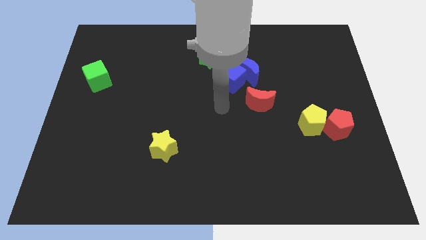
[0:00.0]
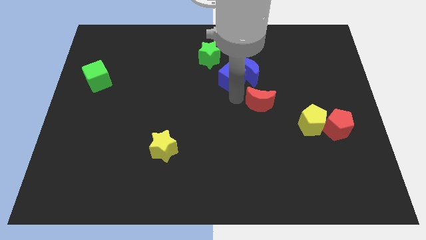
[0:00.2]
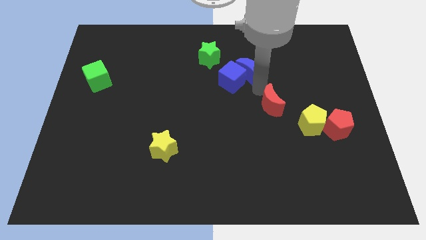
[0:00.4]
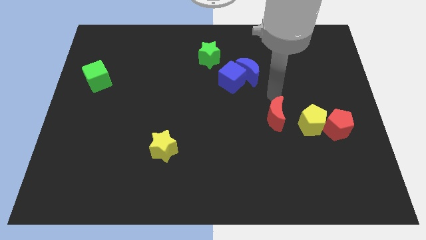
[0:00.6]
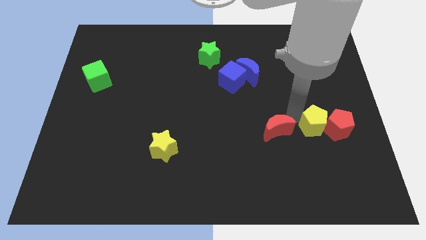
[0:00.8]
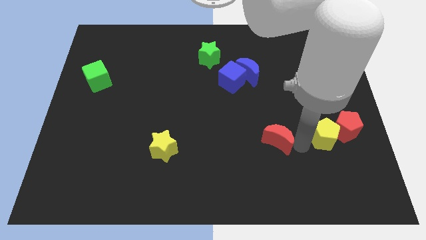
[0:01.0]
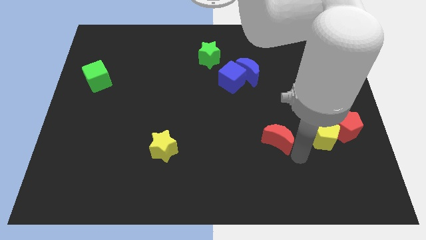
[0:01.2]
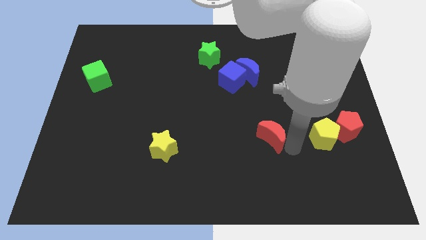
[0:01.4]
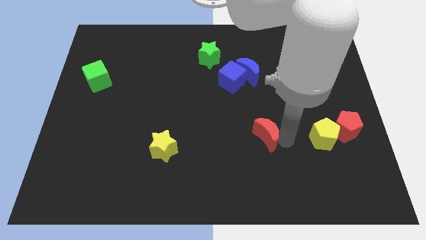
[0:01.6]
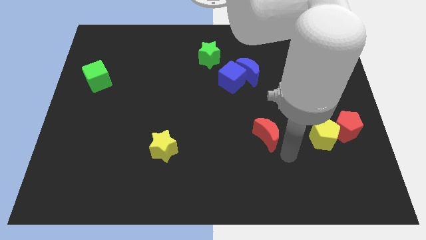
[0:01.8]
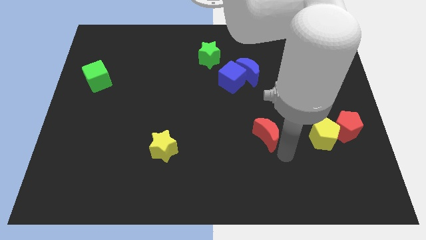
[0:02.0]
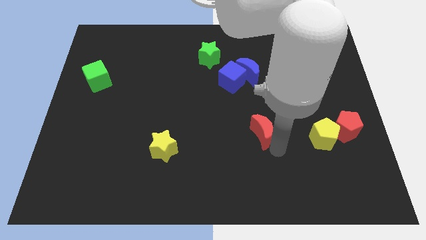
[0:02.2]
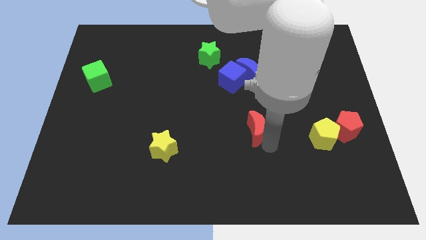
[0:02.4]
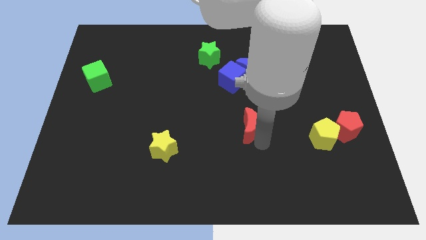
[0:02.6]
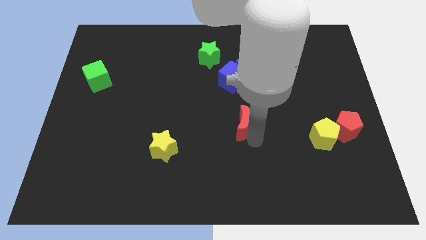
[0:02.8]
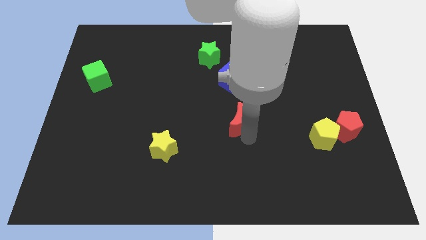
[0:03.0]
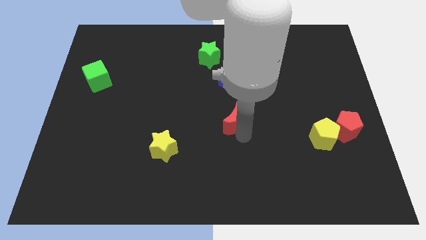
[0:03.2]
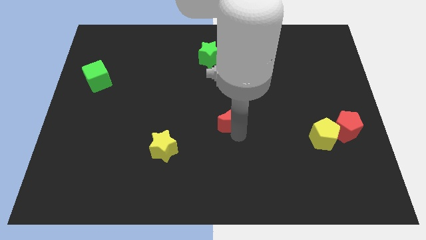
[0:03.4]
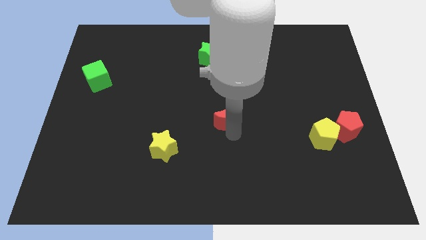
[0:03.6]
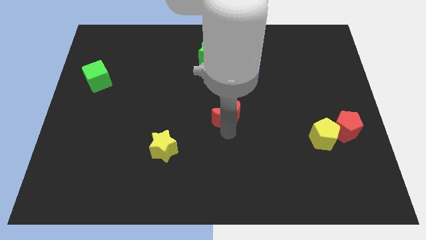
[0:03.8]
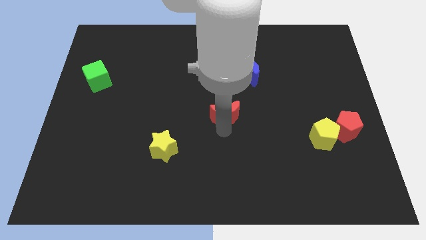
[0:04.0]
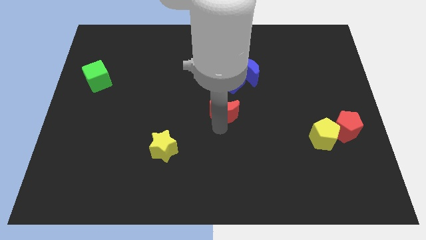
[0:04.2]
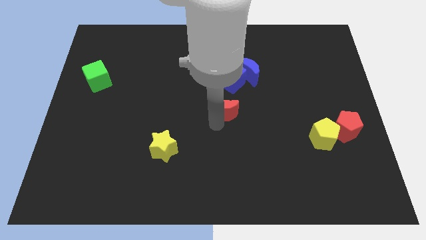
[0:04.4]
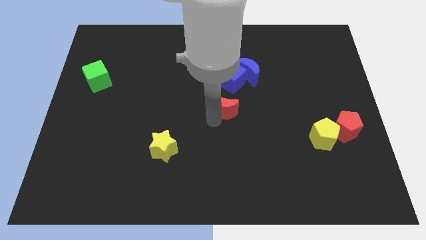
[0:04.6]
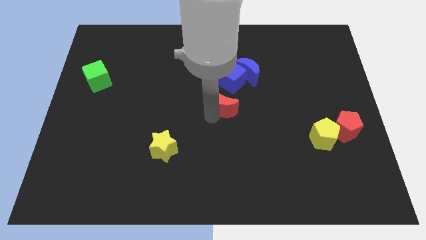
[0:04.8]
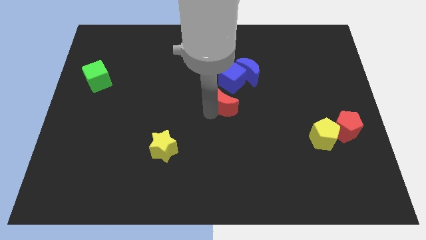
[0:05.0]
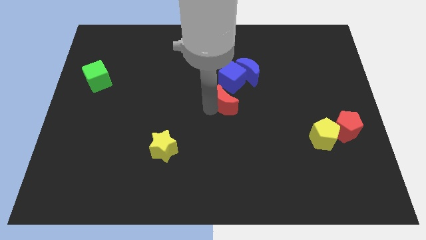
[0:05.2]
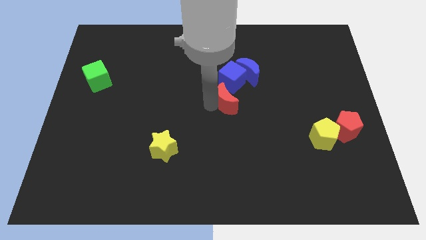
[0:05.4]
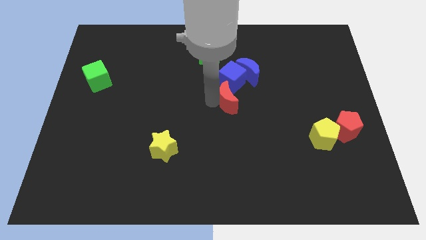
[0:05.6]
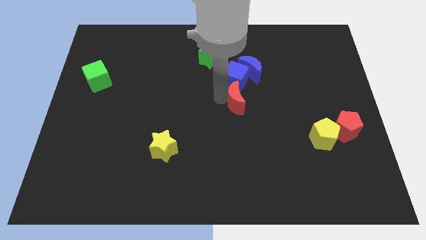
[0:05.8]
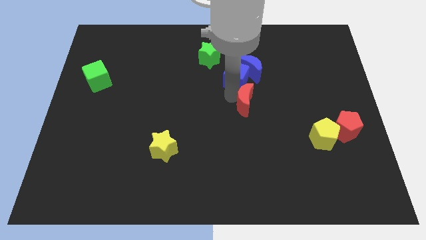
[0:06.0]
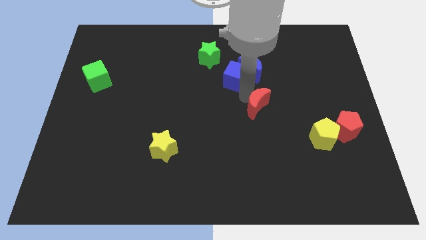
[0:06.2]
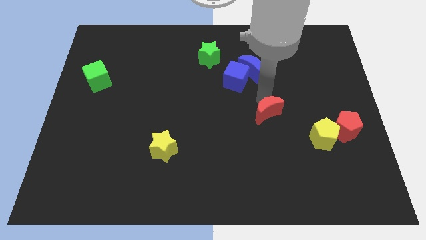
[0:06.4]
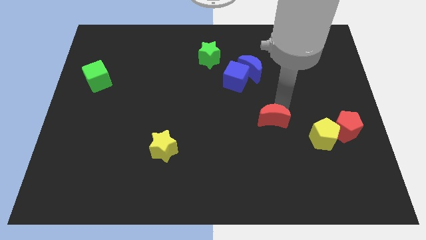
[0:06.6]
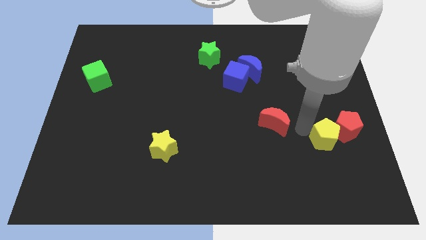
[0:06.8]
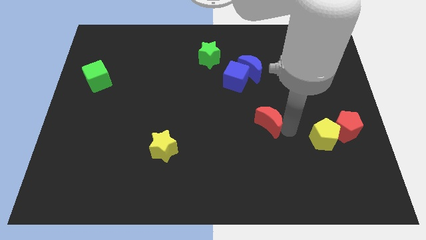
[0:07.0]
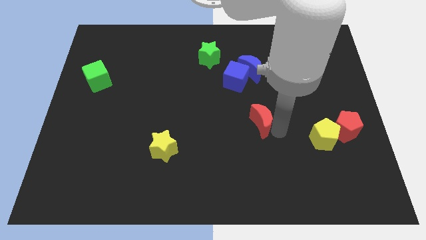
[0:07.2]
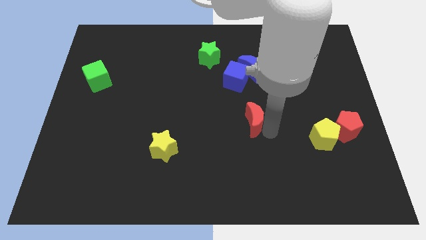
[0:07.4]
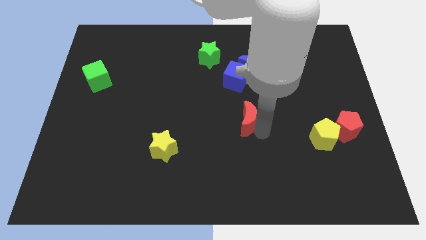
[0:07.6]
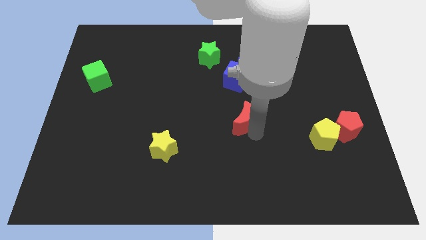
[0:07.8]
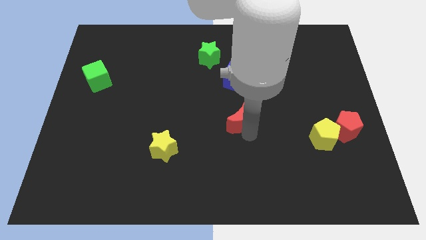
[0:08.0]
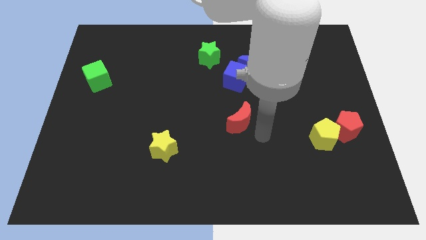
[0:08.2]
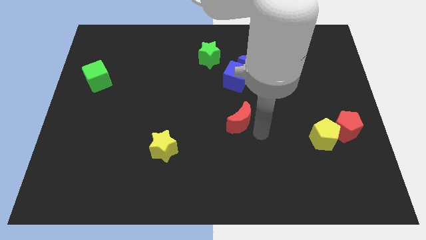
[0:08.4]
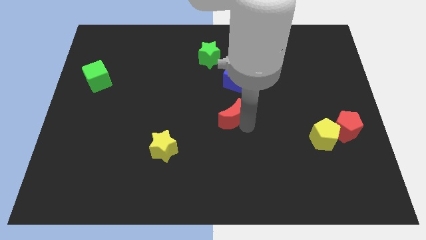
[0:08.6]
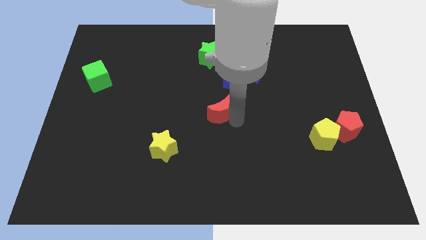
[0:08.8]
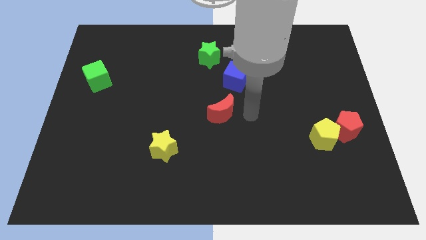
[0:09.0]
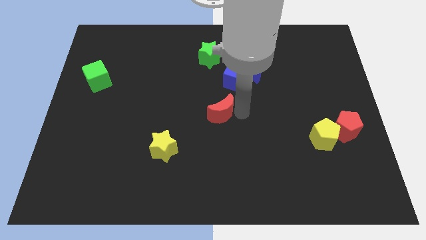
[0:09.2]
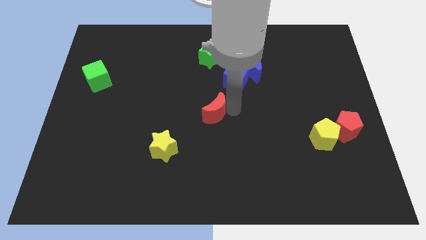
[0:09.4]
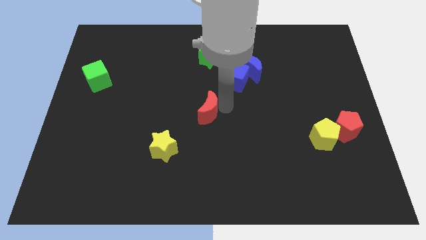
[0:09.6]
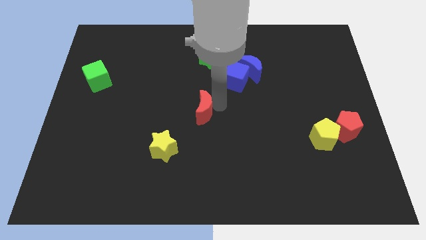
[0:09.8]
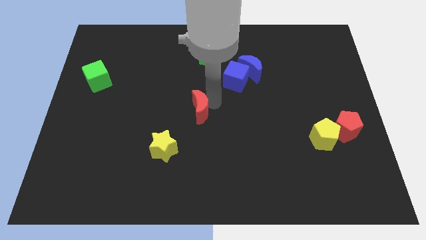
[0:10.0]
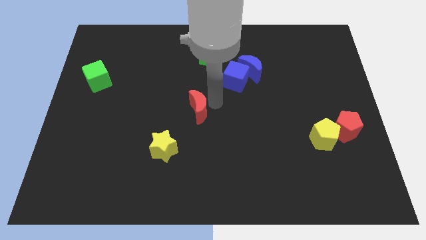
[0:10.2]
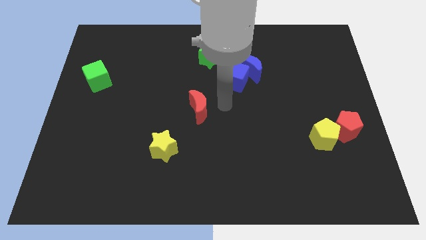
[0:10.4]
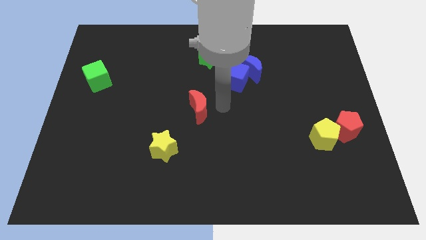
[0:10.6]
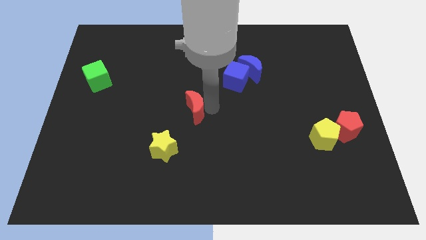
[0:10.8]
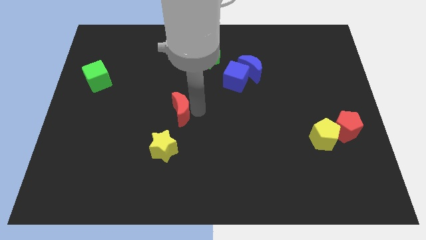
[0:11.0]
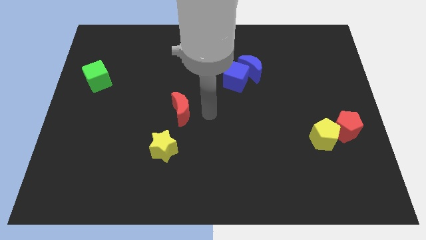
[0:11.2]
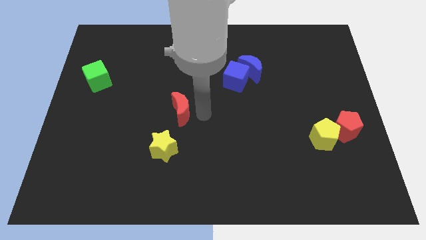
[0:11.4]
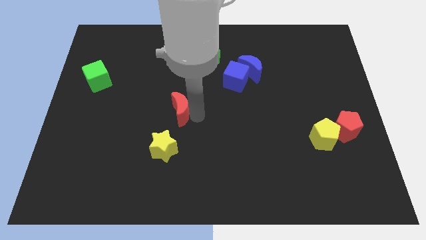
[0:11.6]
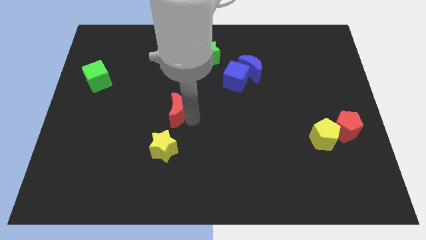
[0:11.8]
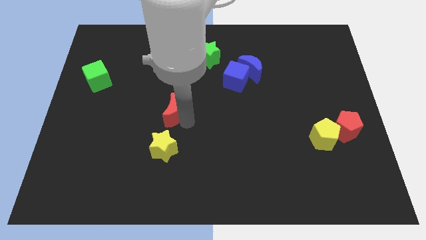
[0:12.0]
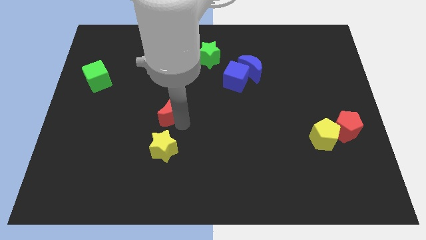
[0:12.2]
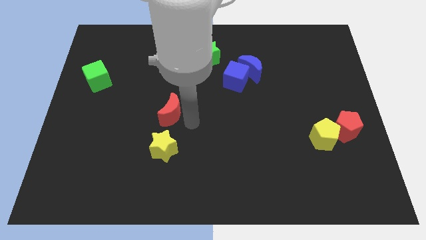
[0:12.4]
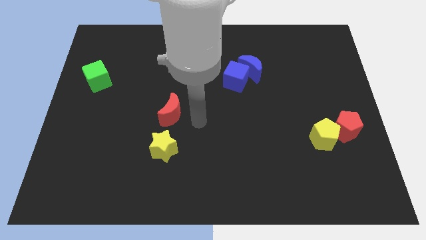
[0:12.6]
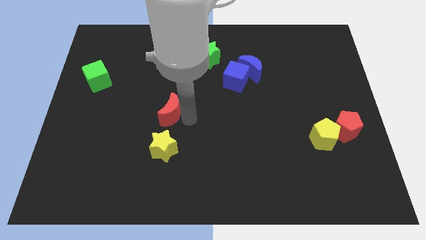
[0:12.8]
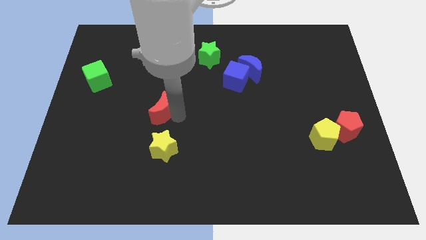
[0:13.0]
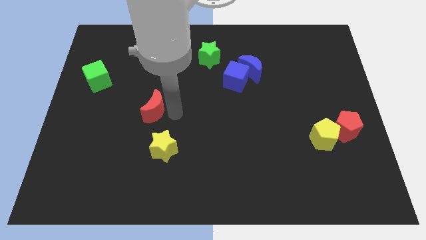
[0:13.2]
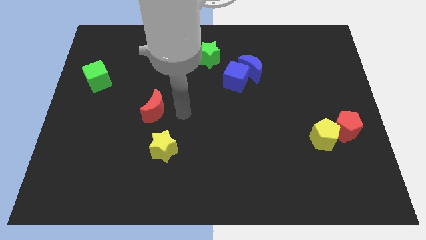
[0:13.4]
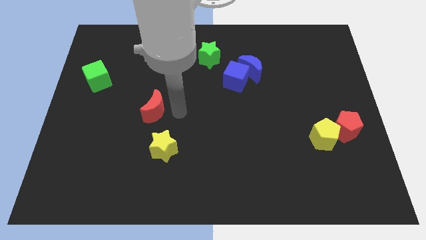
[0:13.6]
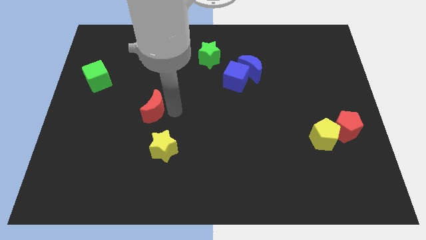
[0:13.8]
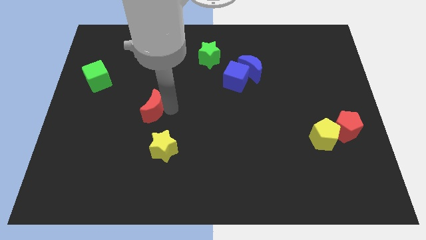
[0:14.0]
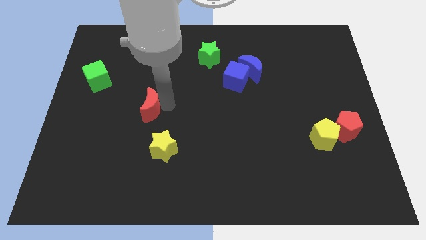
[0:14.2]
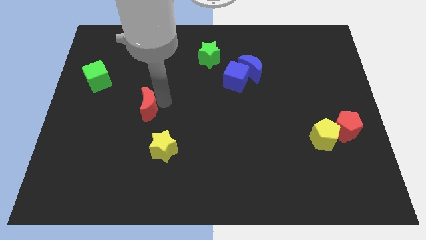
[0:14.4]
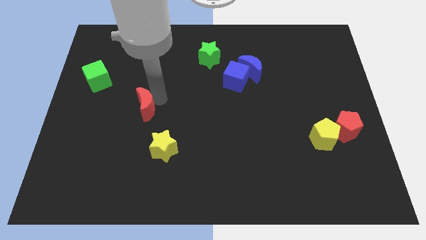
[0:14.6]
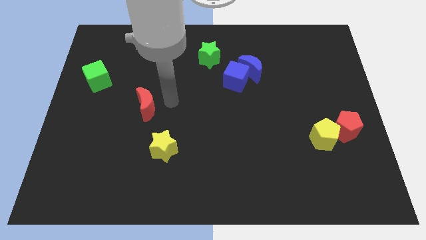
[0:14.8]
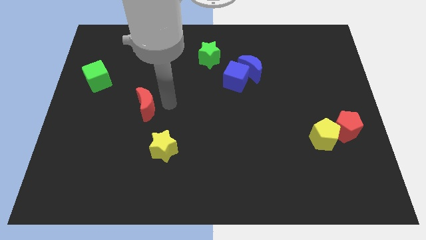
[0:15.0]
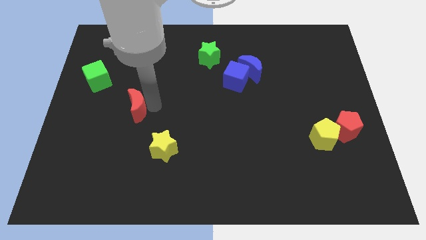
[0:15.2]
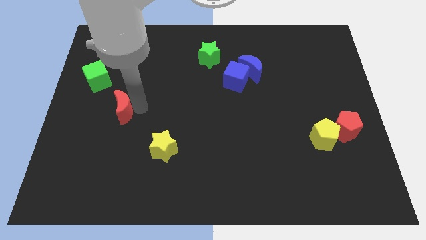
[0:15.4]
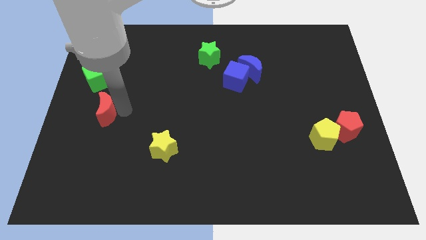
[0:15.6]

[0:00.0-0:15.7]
put the red moon below the green cube

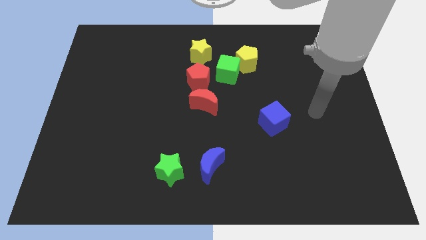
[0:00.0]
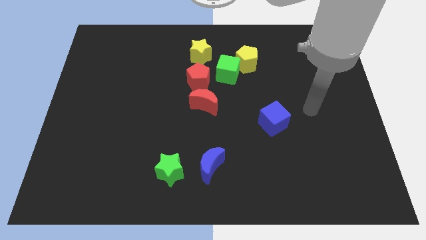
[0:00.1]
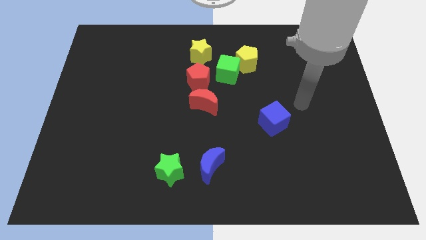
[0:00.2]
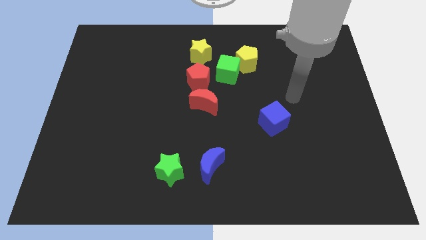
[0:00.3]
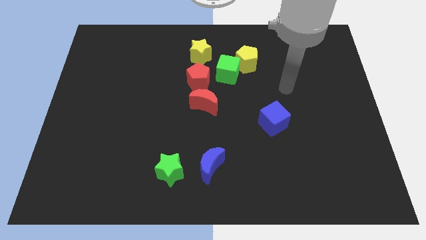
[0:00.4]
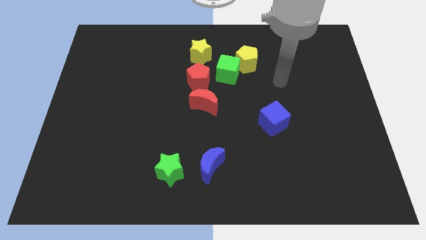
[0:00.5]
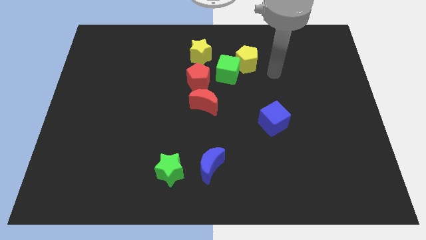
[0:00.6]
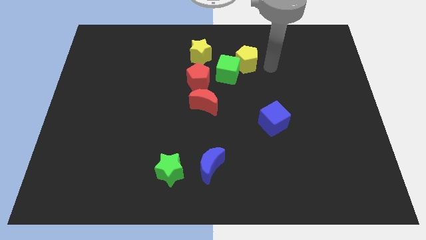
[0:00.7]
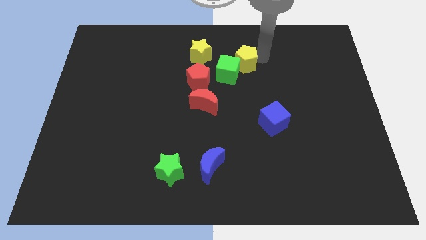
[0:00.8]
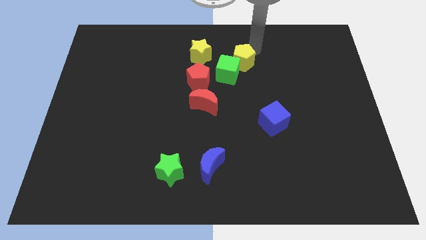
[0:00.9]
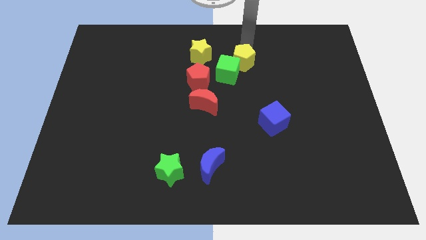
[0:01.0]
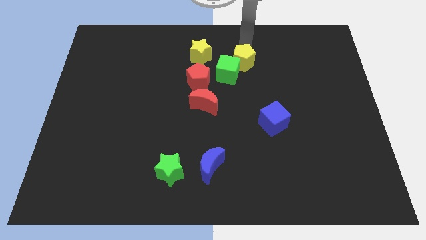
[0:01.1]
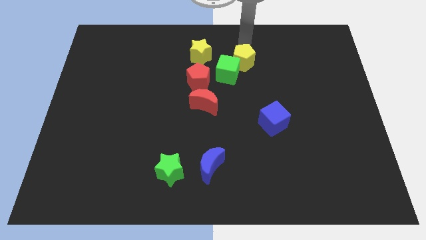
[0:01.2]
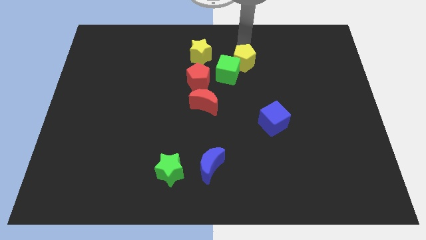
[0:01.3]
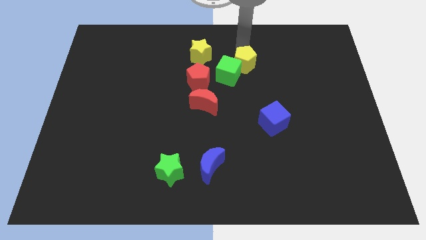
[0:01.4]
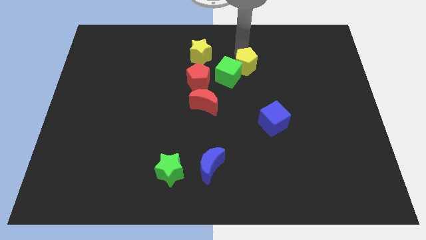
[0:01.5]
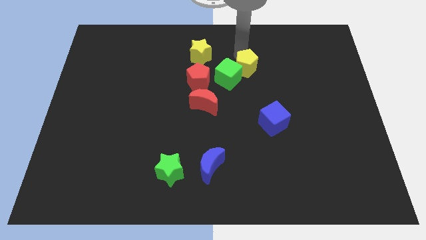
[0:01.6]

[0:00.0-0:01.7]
put the yellow pentagon to the right side of the red pentagon
